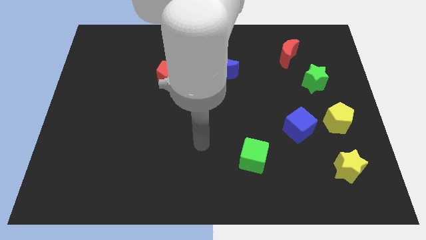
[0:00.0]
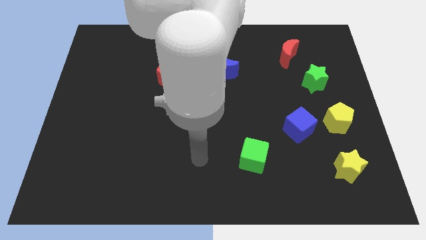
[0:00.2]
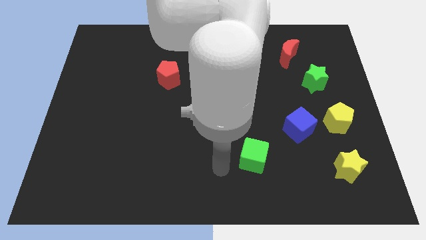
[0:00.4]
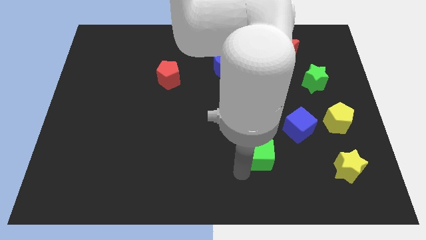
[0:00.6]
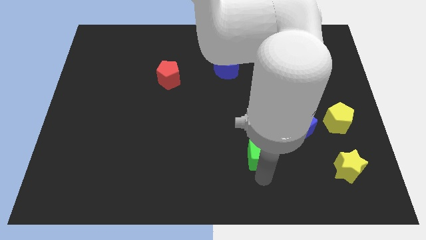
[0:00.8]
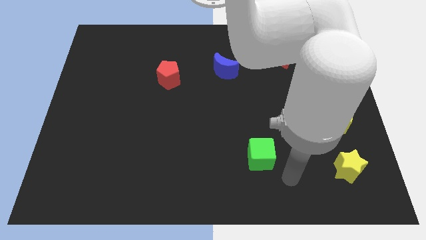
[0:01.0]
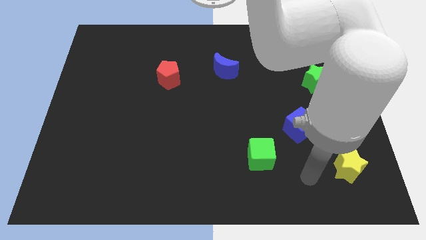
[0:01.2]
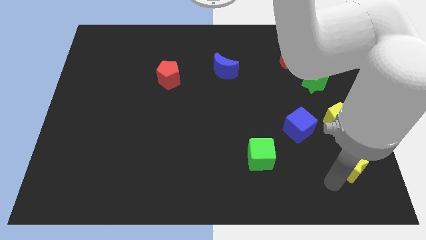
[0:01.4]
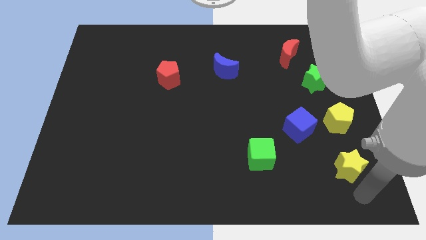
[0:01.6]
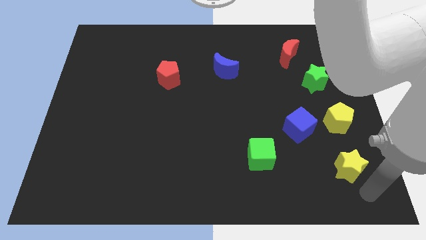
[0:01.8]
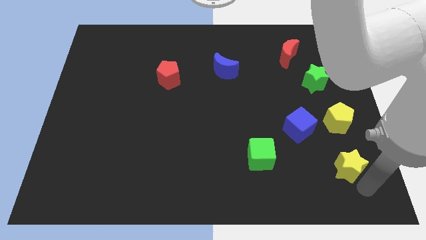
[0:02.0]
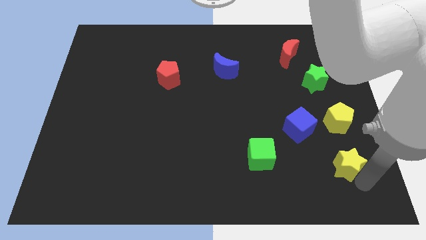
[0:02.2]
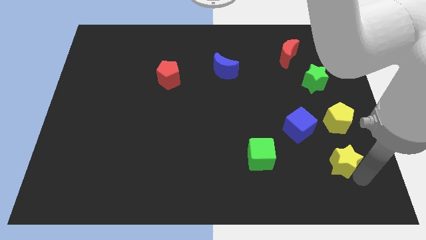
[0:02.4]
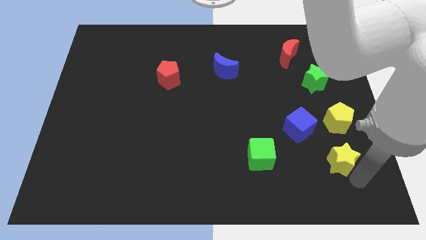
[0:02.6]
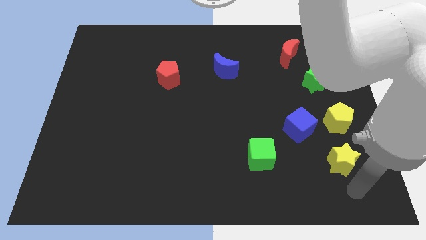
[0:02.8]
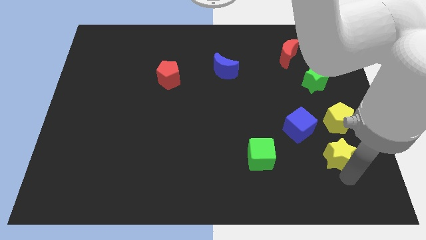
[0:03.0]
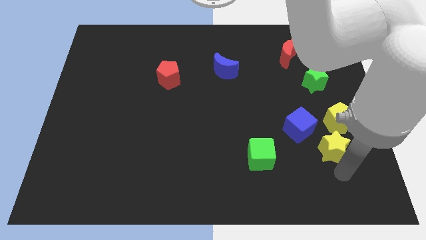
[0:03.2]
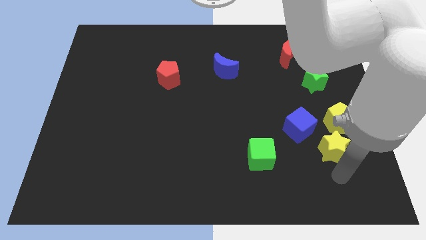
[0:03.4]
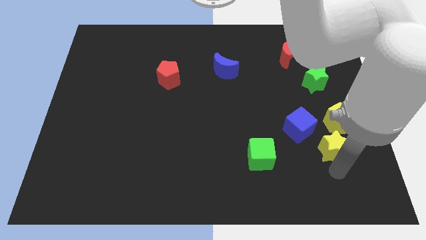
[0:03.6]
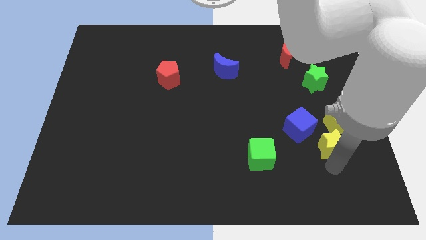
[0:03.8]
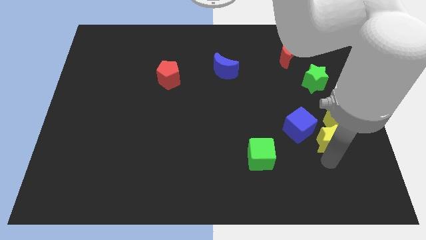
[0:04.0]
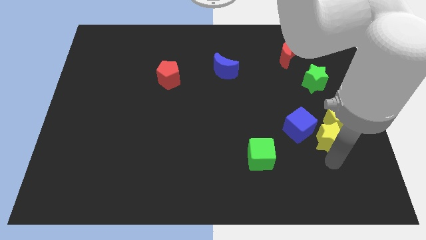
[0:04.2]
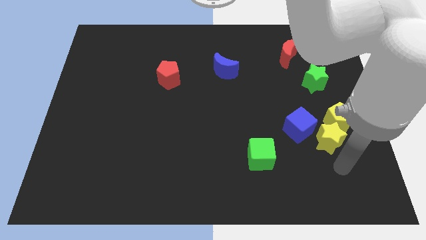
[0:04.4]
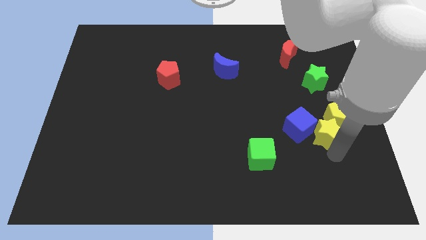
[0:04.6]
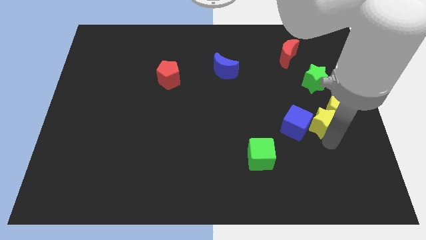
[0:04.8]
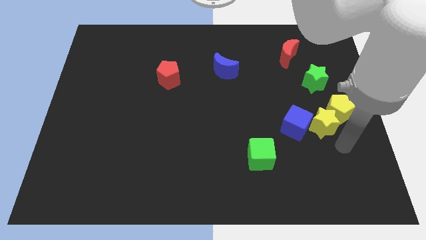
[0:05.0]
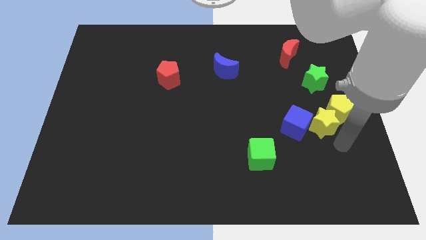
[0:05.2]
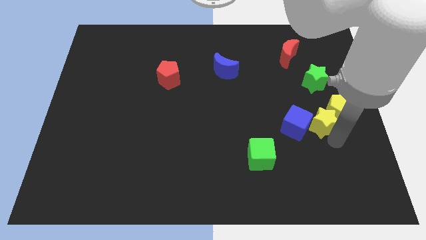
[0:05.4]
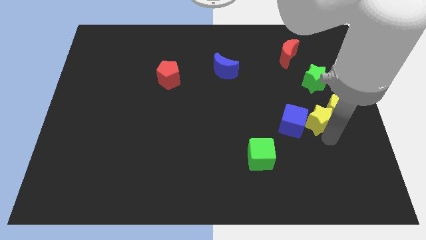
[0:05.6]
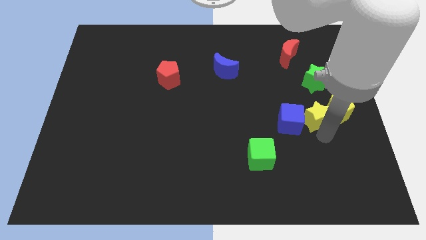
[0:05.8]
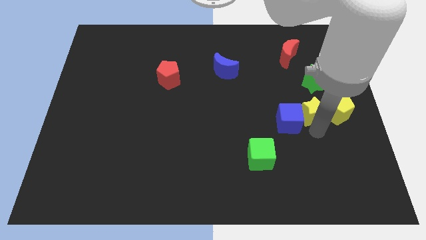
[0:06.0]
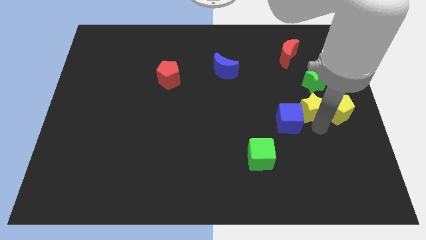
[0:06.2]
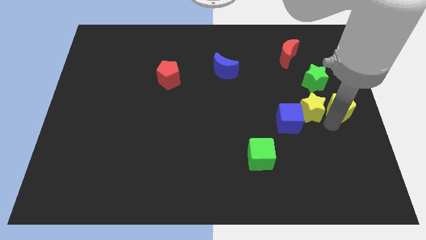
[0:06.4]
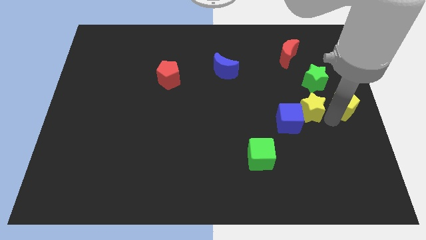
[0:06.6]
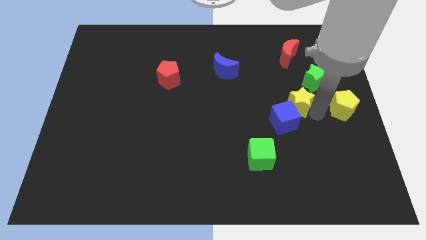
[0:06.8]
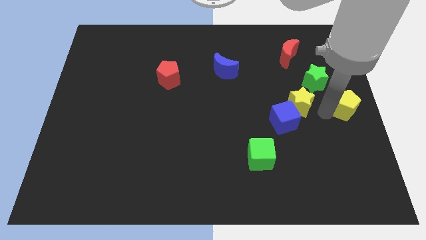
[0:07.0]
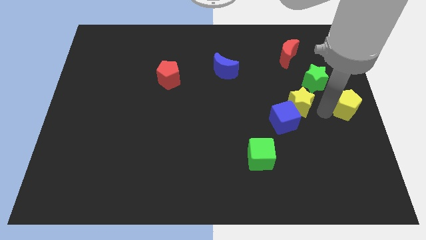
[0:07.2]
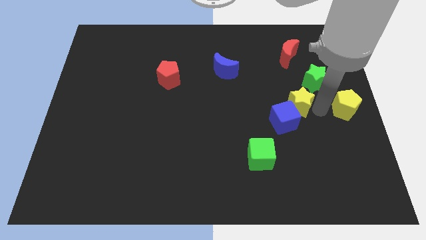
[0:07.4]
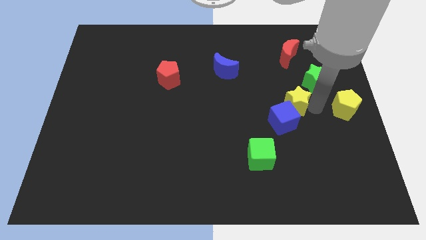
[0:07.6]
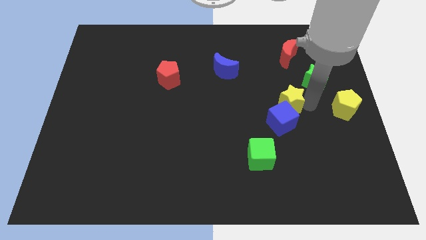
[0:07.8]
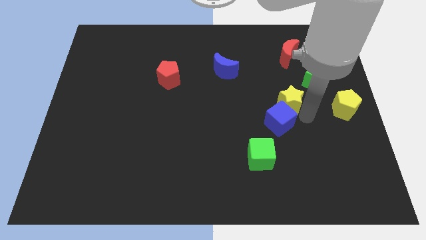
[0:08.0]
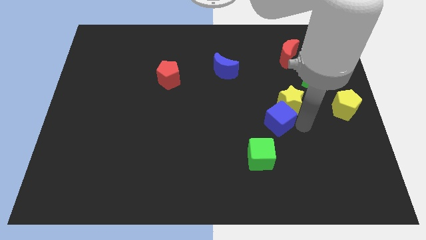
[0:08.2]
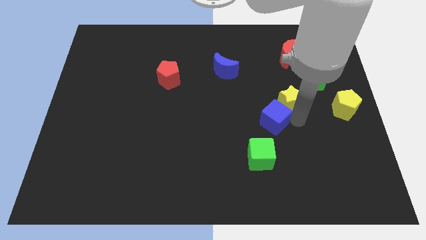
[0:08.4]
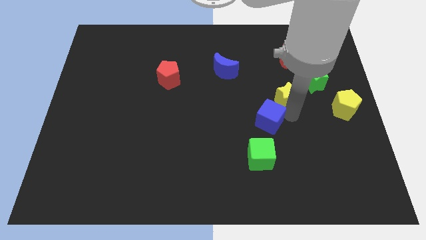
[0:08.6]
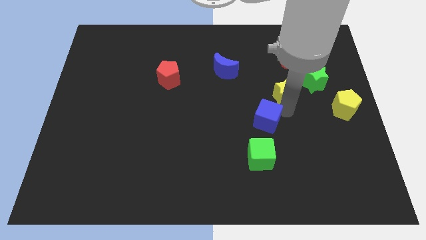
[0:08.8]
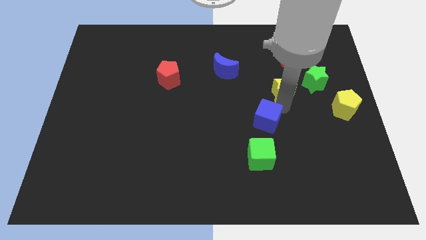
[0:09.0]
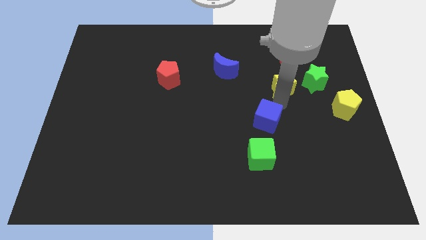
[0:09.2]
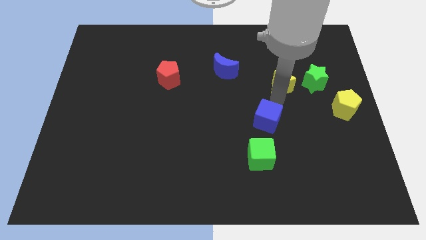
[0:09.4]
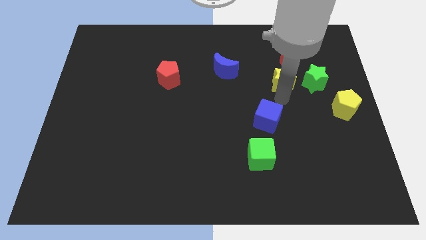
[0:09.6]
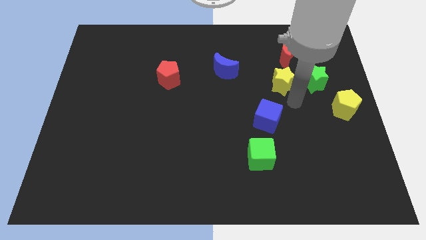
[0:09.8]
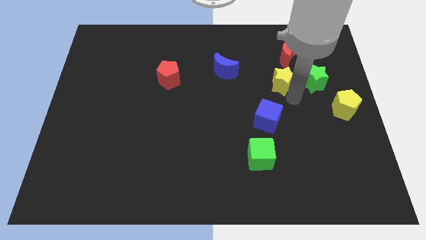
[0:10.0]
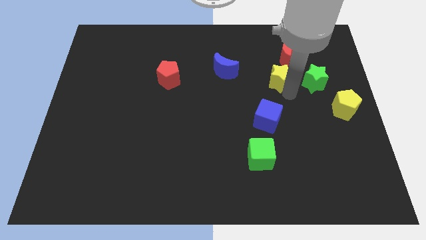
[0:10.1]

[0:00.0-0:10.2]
push the yellow star diagonally down and to the left of the red moon

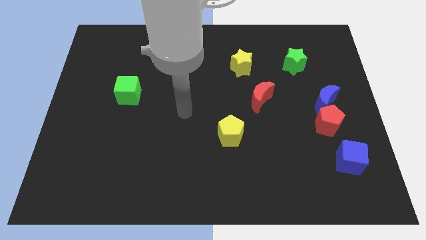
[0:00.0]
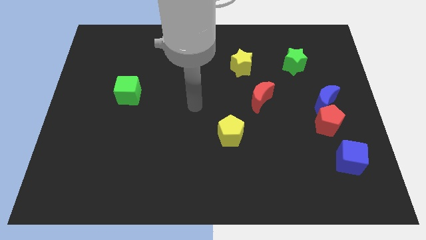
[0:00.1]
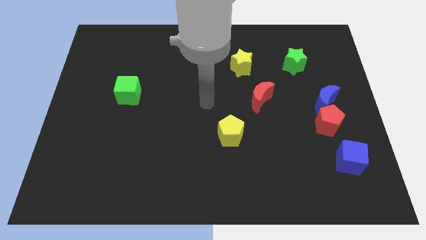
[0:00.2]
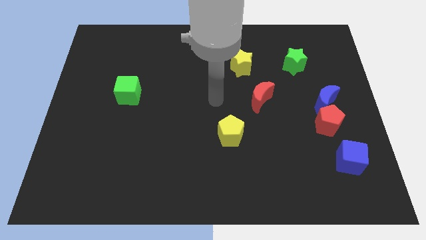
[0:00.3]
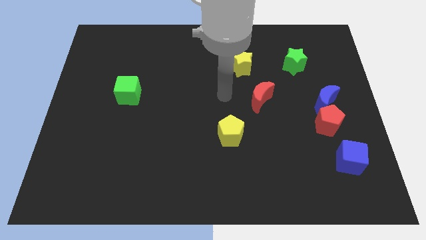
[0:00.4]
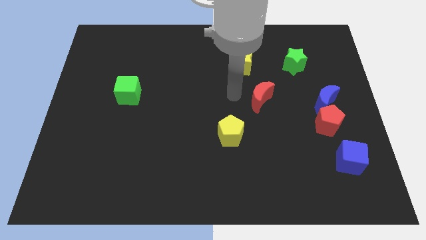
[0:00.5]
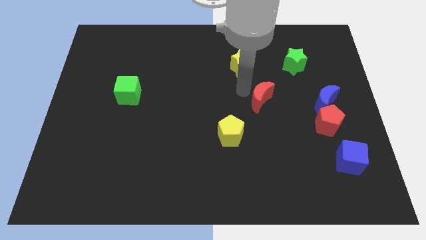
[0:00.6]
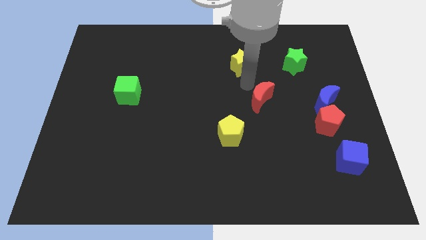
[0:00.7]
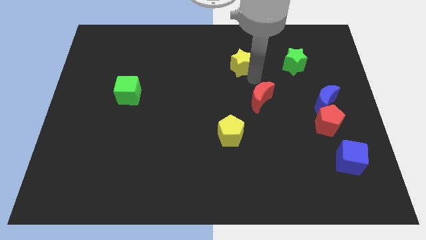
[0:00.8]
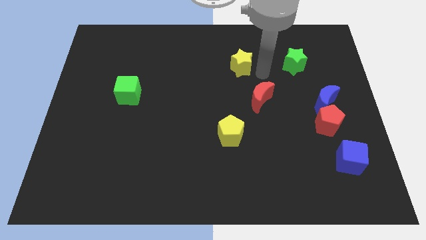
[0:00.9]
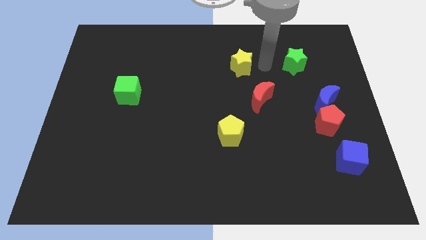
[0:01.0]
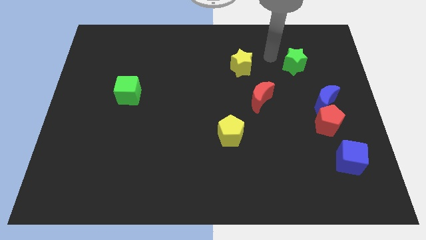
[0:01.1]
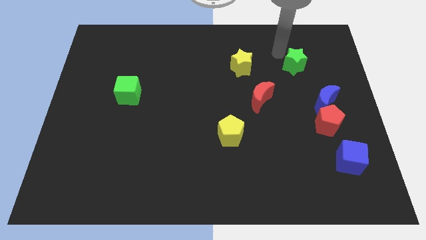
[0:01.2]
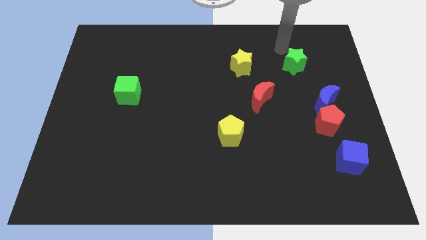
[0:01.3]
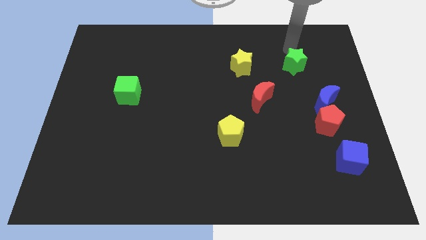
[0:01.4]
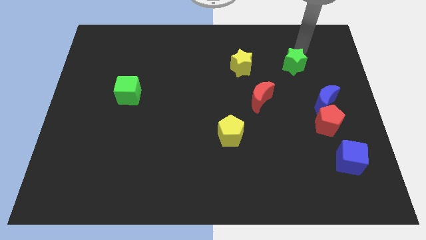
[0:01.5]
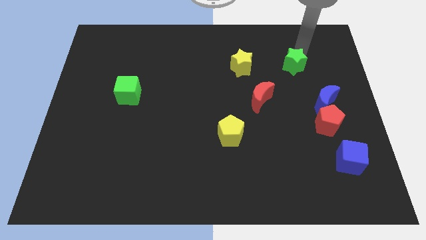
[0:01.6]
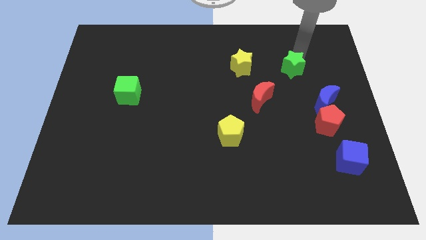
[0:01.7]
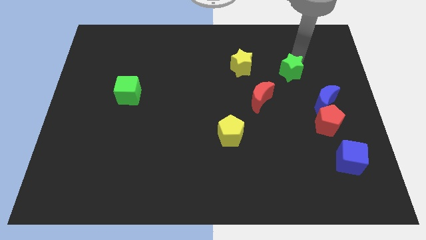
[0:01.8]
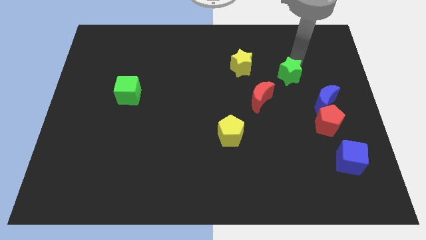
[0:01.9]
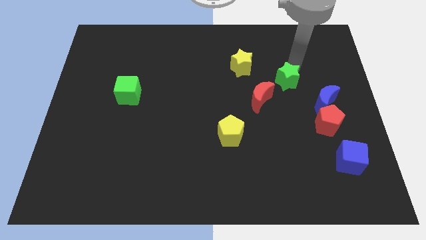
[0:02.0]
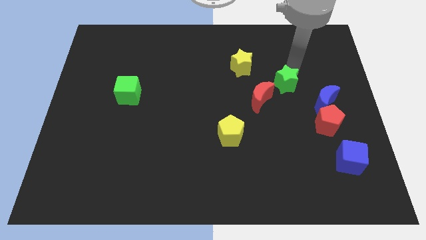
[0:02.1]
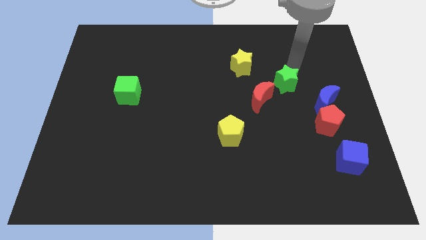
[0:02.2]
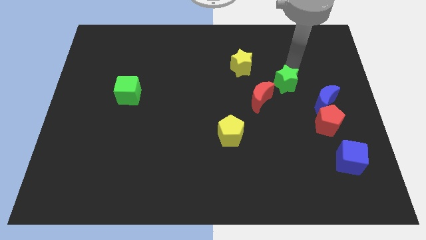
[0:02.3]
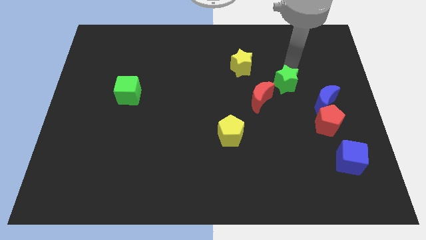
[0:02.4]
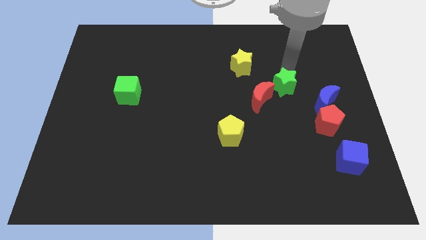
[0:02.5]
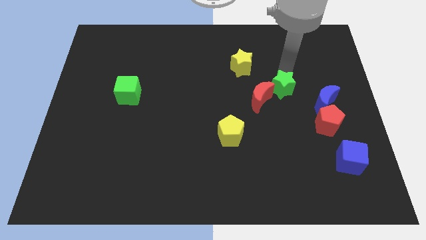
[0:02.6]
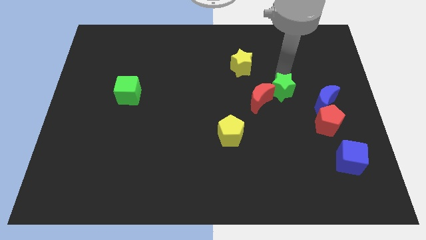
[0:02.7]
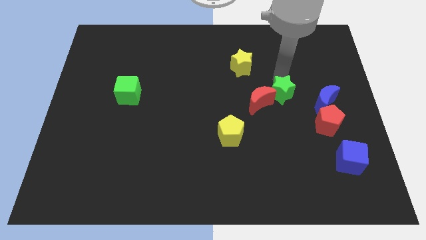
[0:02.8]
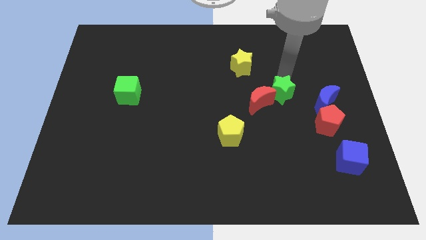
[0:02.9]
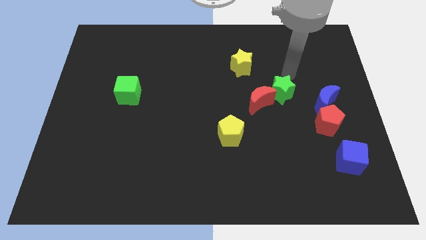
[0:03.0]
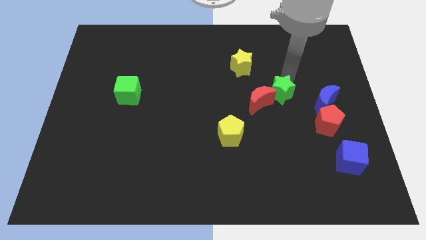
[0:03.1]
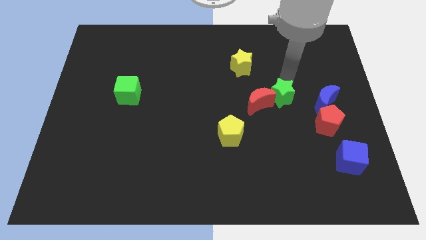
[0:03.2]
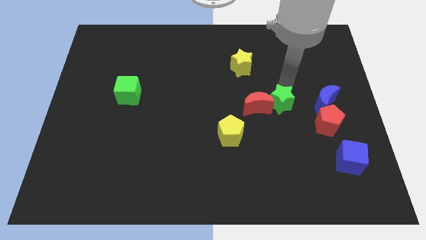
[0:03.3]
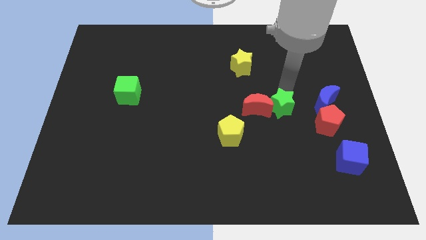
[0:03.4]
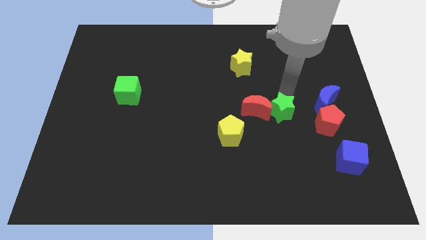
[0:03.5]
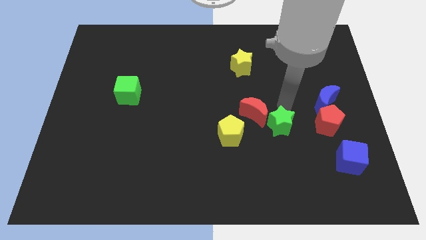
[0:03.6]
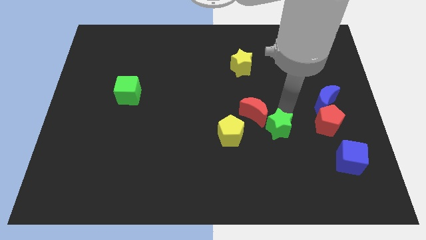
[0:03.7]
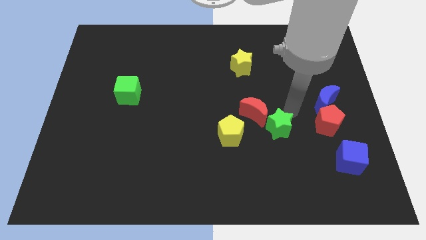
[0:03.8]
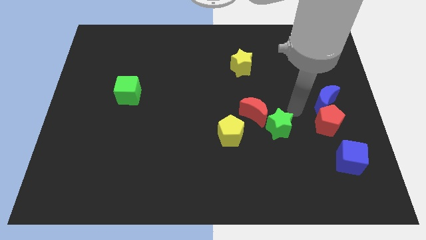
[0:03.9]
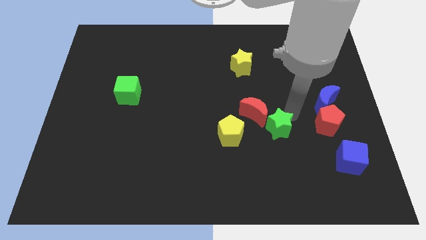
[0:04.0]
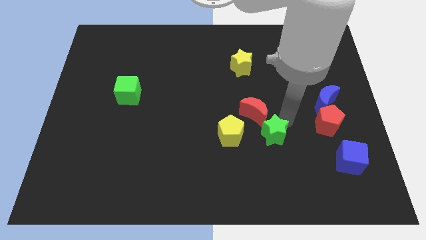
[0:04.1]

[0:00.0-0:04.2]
move the green star to the bottom of the red moon
